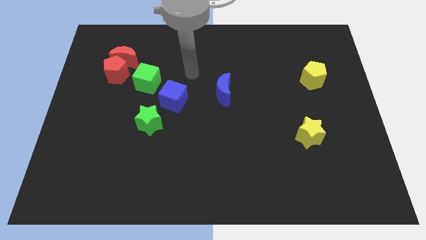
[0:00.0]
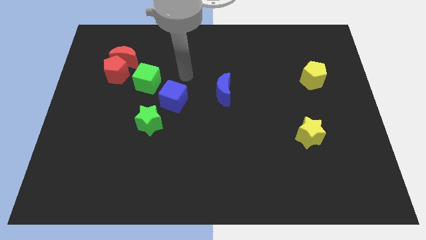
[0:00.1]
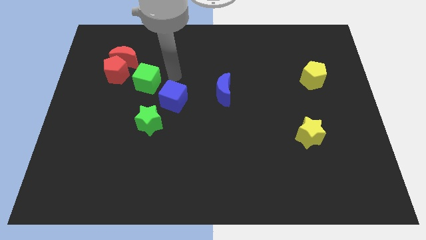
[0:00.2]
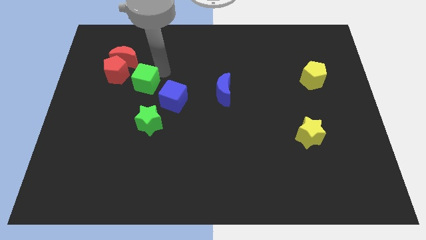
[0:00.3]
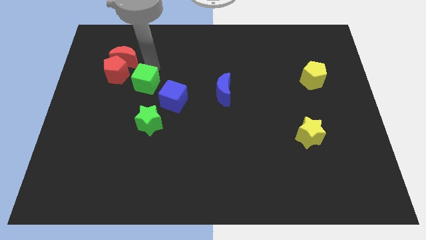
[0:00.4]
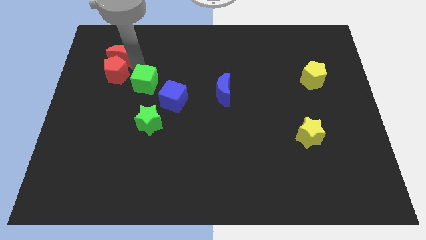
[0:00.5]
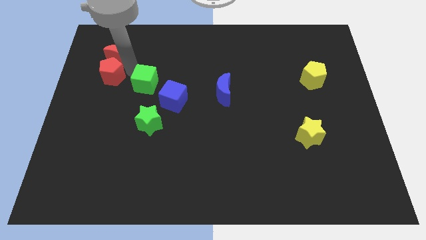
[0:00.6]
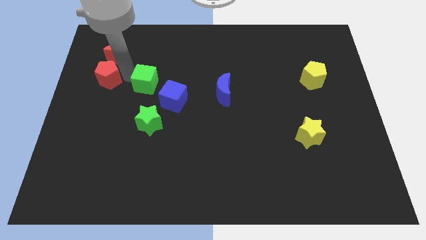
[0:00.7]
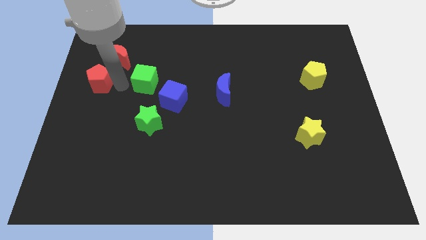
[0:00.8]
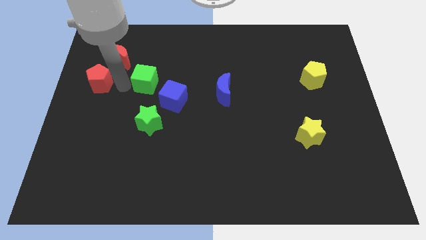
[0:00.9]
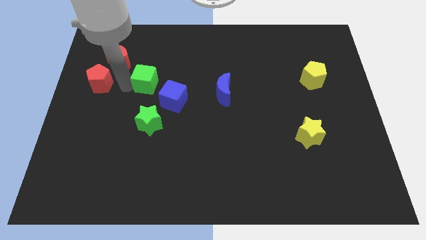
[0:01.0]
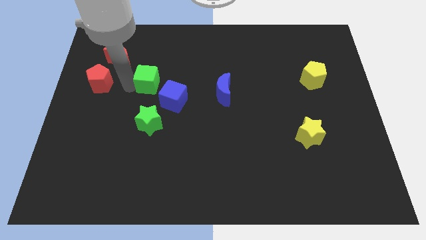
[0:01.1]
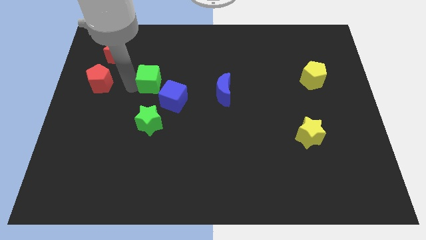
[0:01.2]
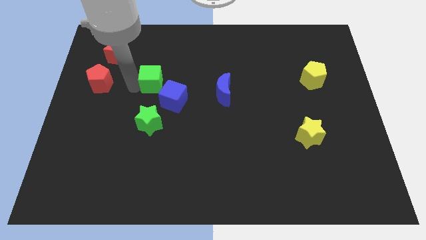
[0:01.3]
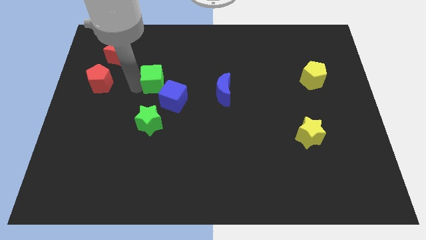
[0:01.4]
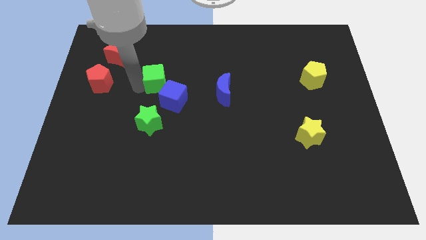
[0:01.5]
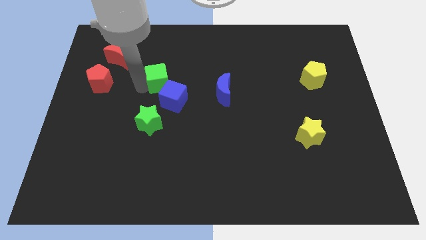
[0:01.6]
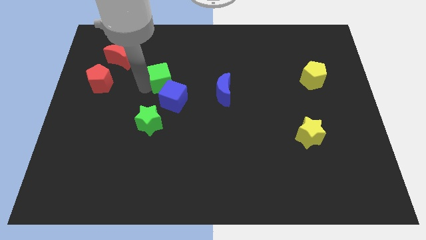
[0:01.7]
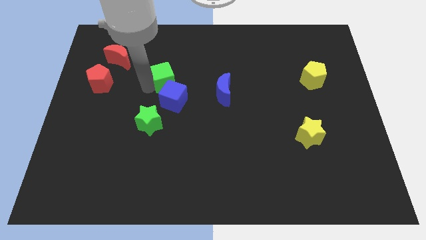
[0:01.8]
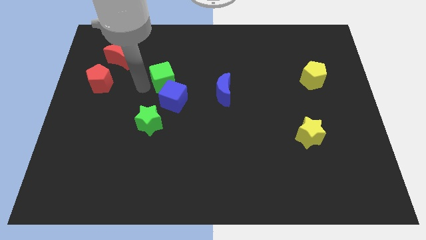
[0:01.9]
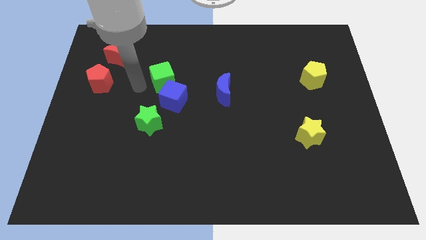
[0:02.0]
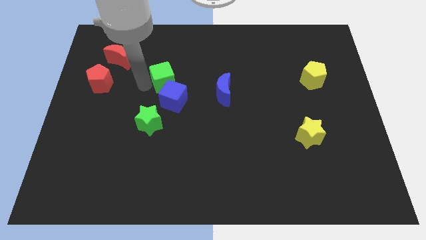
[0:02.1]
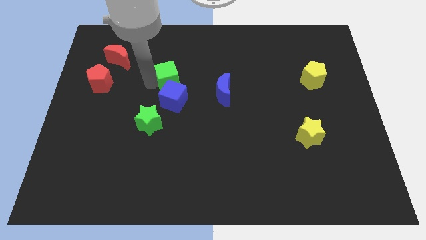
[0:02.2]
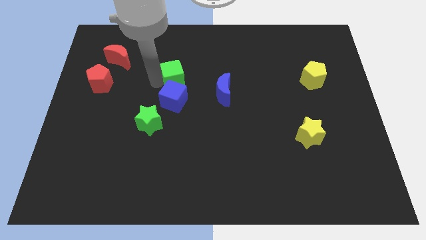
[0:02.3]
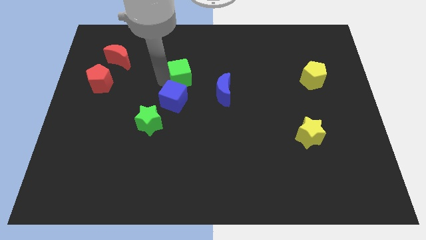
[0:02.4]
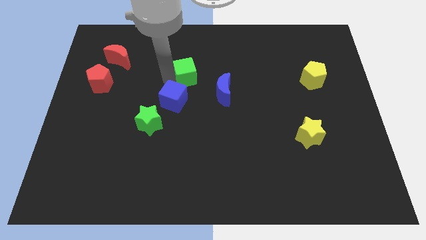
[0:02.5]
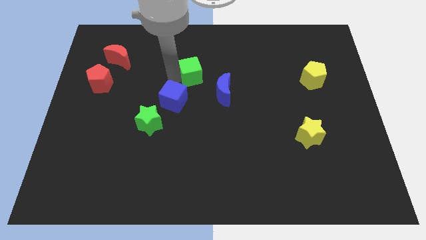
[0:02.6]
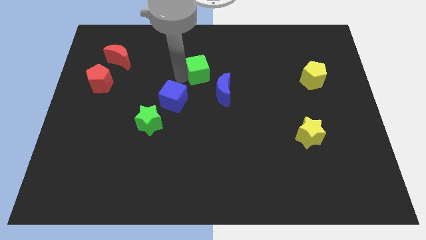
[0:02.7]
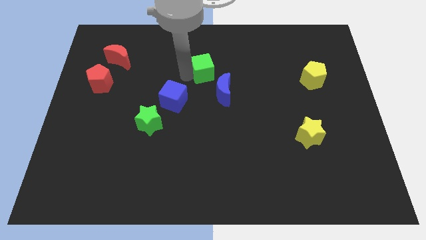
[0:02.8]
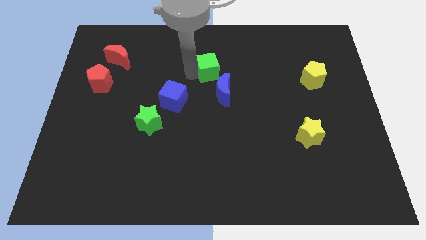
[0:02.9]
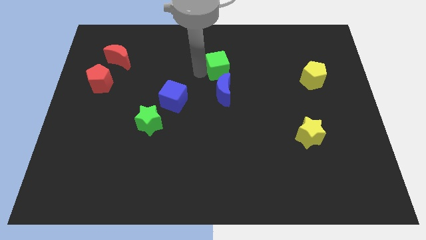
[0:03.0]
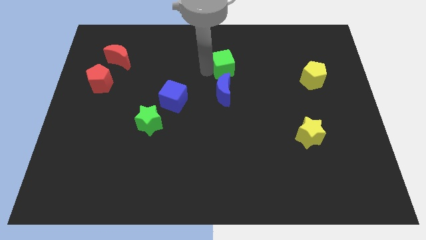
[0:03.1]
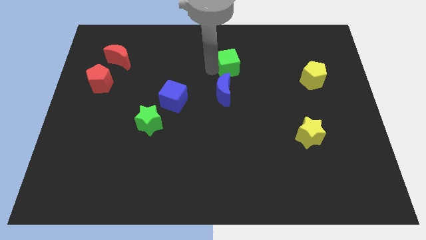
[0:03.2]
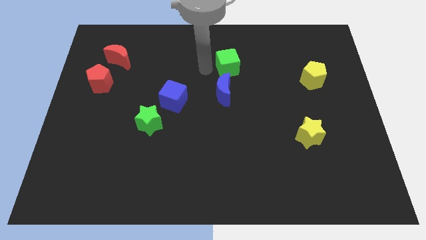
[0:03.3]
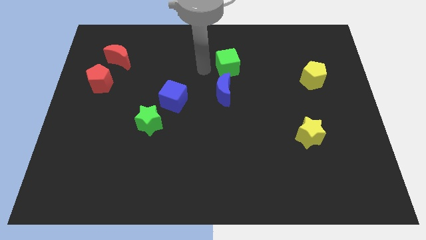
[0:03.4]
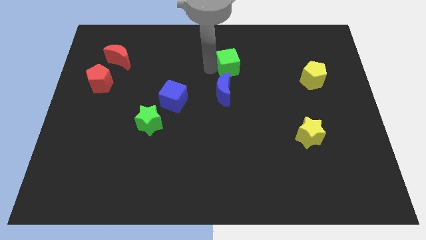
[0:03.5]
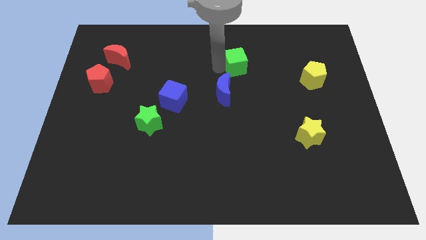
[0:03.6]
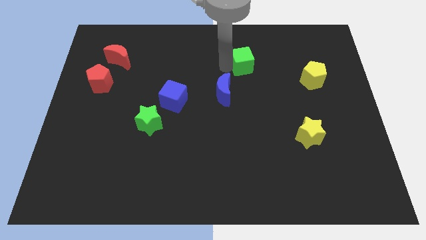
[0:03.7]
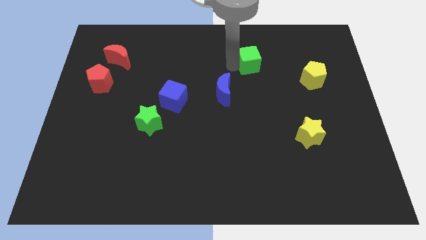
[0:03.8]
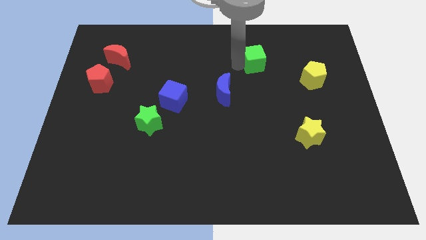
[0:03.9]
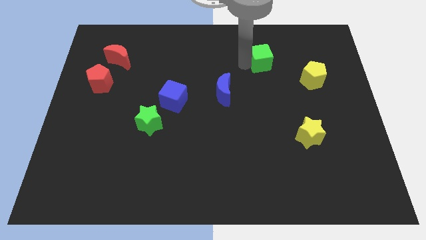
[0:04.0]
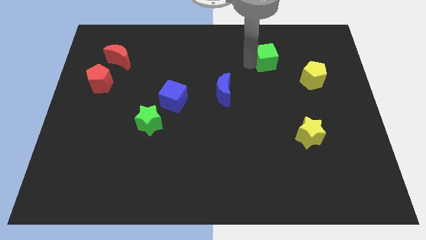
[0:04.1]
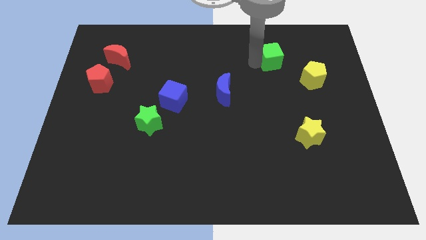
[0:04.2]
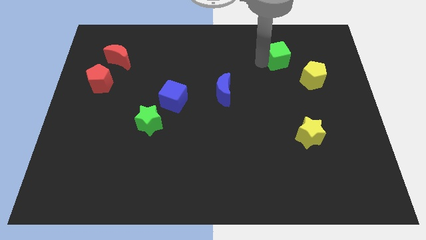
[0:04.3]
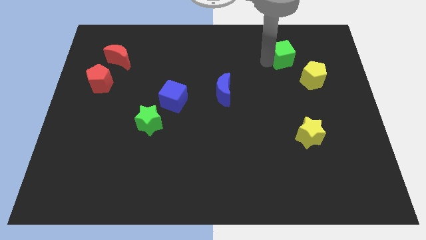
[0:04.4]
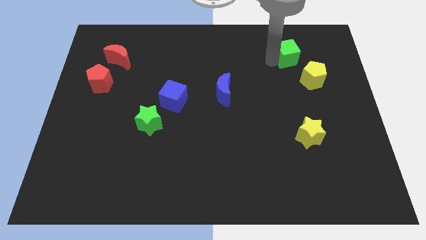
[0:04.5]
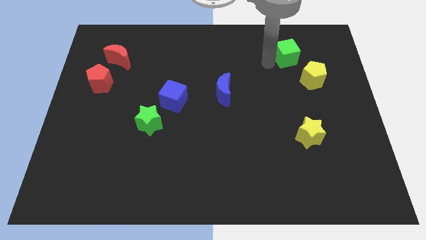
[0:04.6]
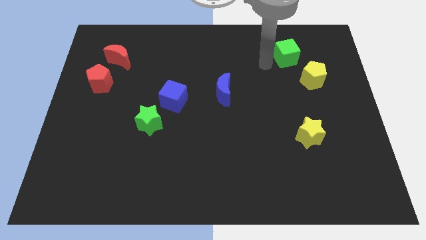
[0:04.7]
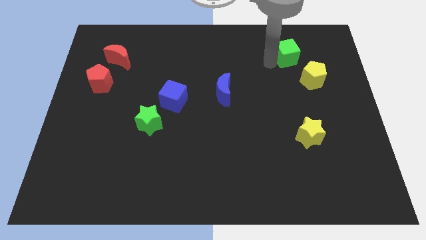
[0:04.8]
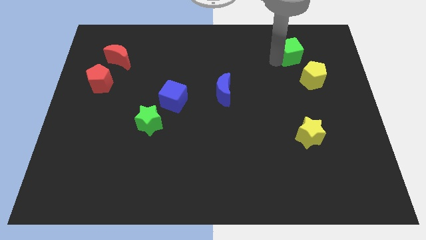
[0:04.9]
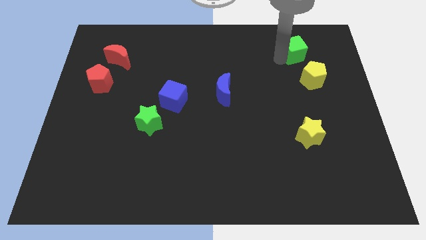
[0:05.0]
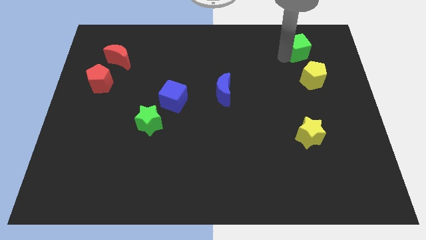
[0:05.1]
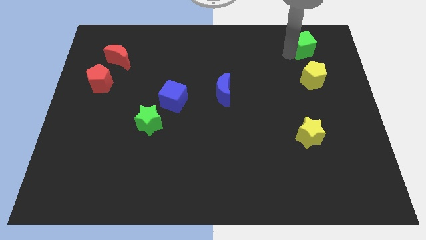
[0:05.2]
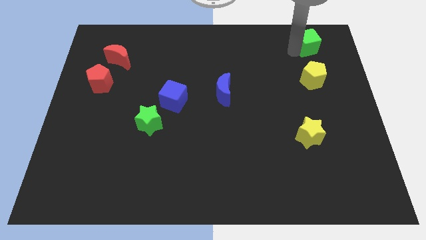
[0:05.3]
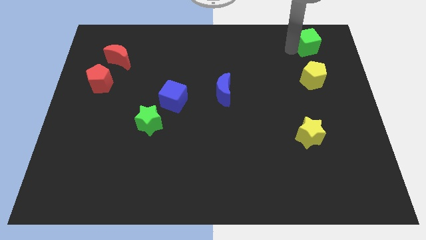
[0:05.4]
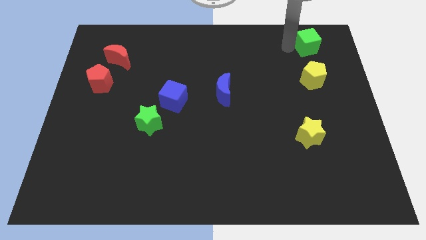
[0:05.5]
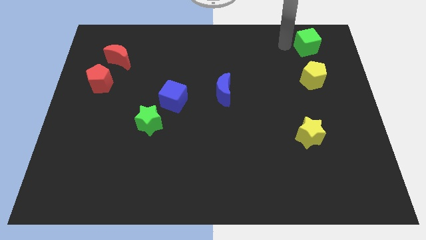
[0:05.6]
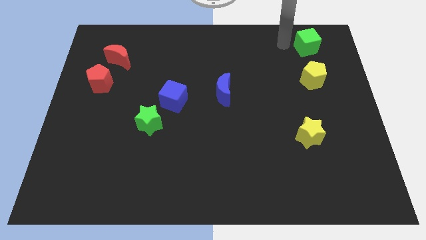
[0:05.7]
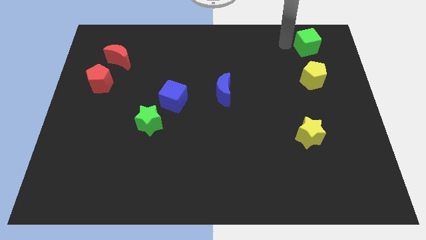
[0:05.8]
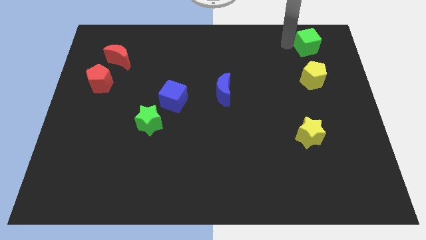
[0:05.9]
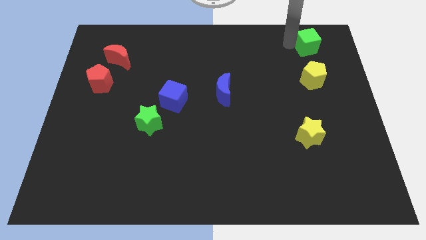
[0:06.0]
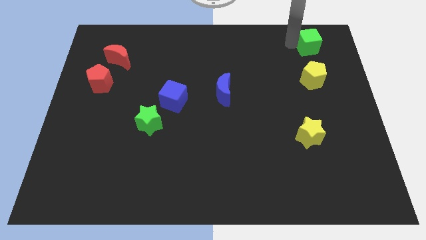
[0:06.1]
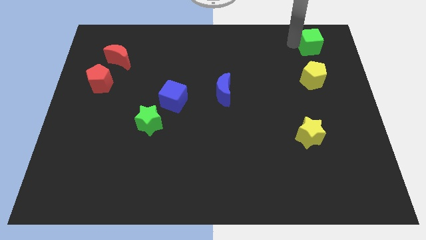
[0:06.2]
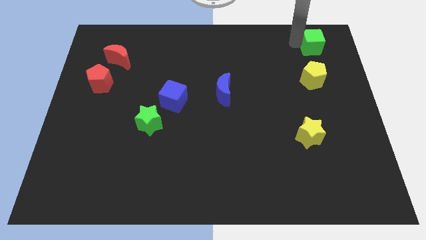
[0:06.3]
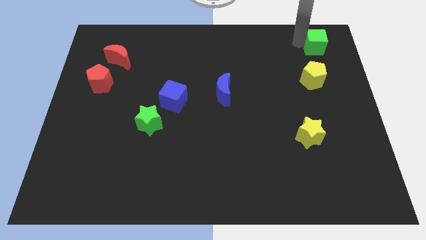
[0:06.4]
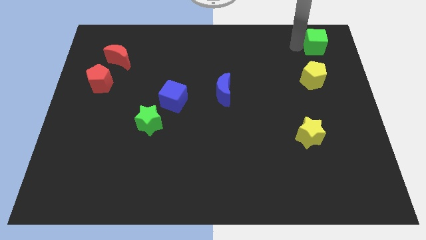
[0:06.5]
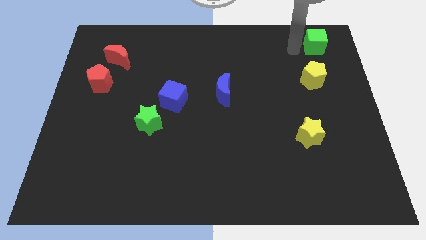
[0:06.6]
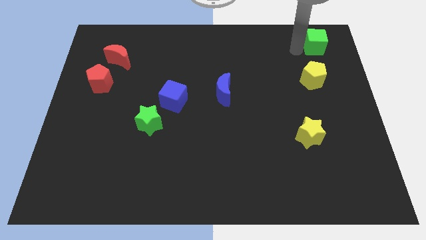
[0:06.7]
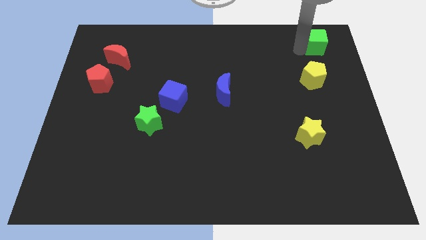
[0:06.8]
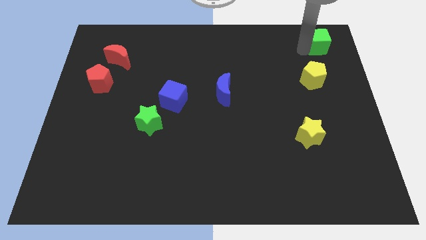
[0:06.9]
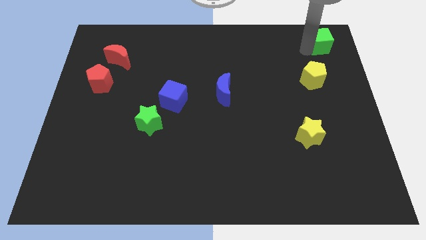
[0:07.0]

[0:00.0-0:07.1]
push the green cube to the top right corner
